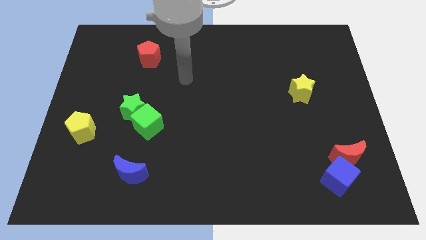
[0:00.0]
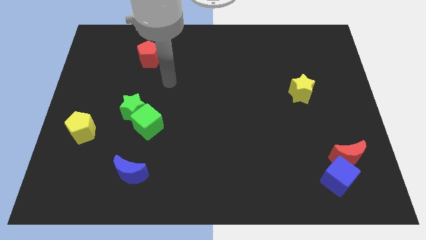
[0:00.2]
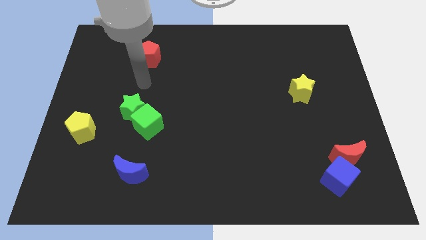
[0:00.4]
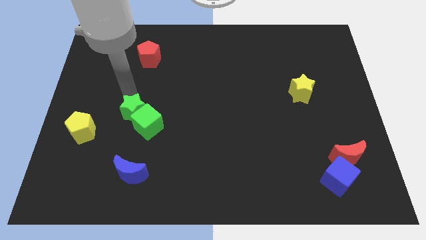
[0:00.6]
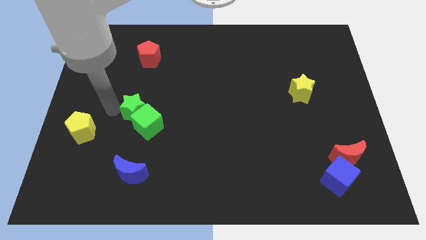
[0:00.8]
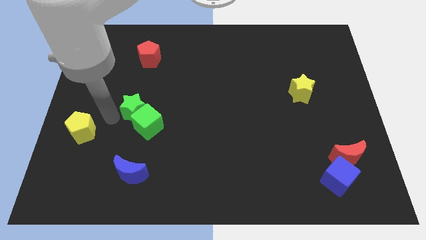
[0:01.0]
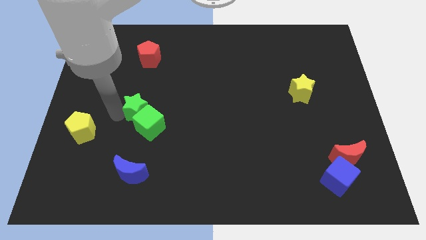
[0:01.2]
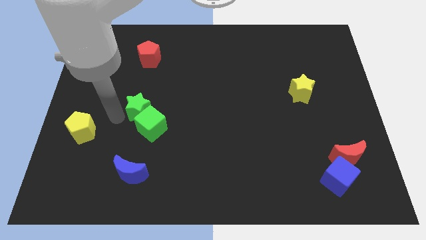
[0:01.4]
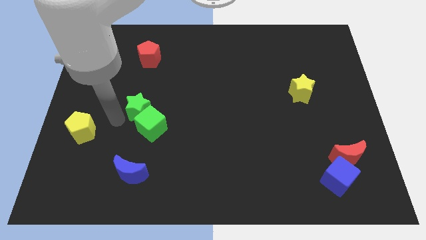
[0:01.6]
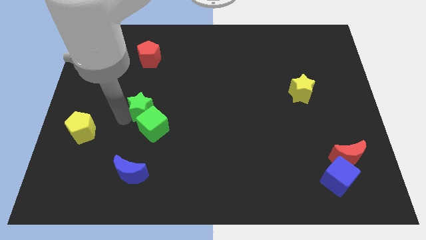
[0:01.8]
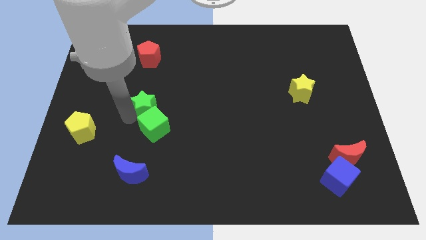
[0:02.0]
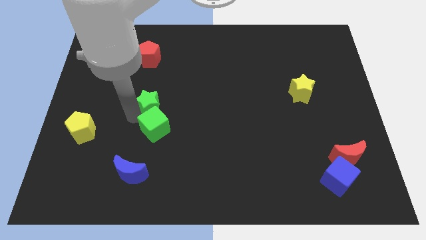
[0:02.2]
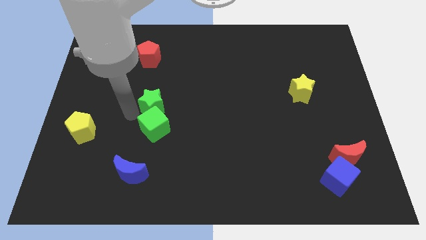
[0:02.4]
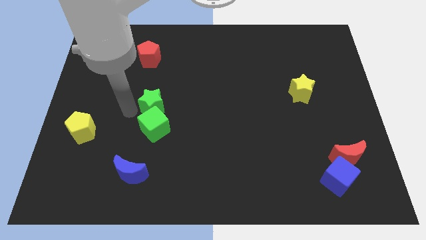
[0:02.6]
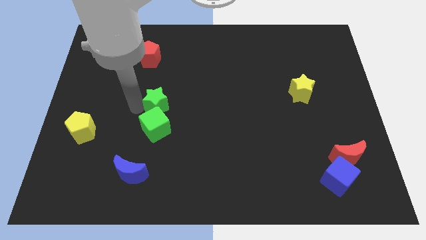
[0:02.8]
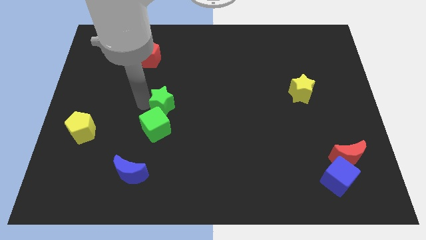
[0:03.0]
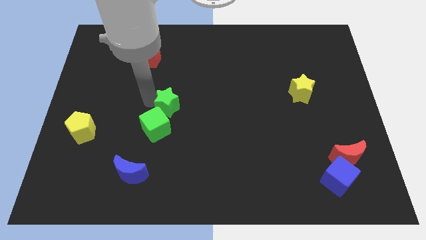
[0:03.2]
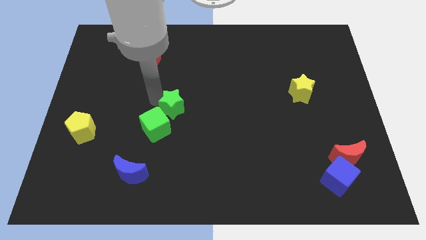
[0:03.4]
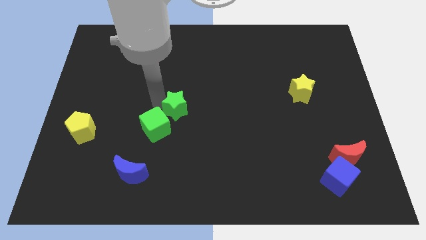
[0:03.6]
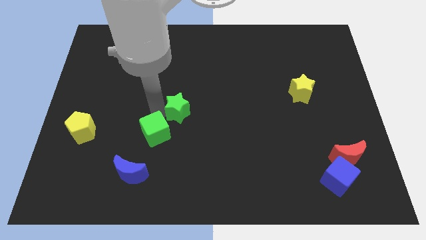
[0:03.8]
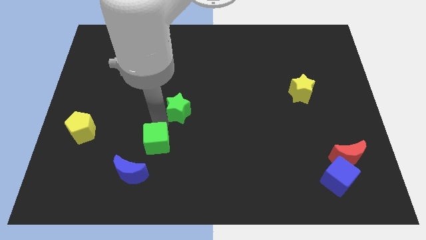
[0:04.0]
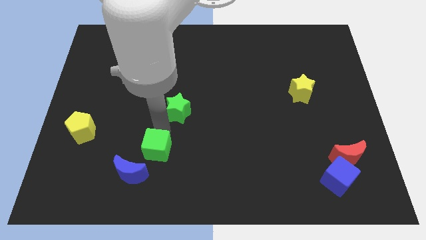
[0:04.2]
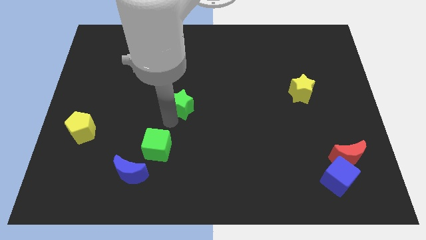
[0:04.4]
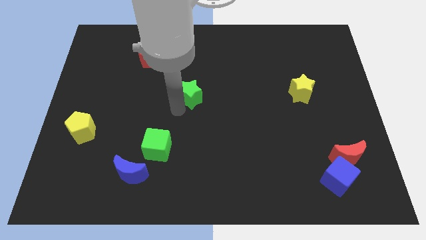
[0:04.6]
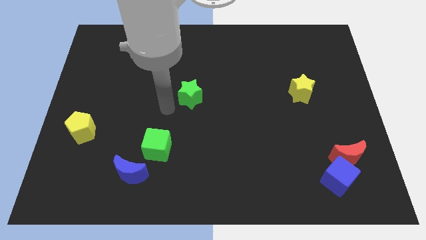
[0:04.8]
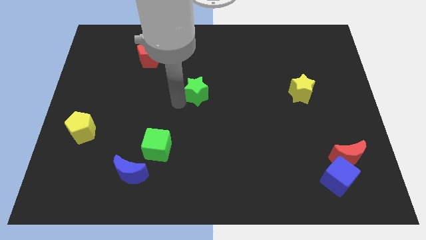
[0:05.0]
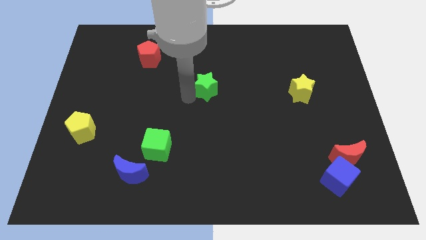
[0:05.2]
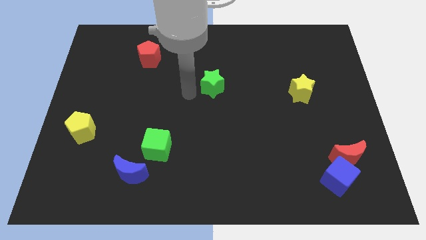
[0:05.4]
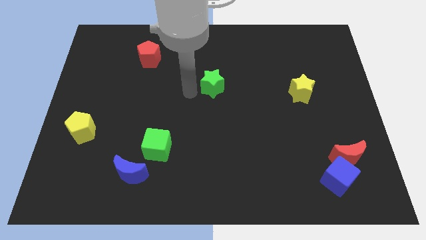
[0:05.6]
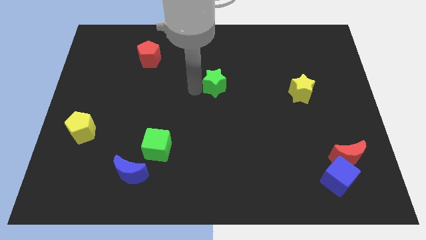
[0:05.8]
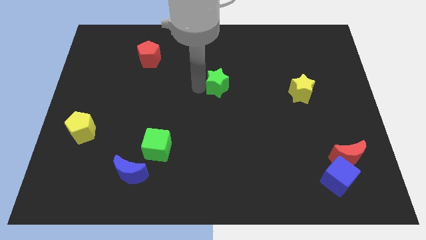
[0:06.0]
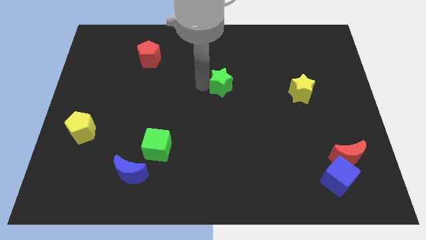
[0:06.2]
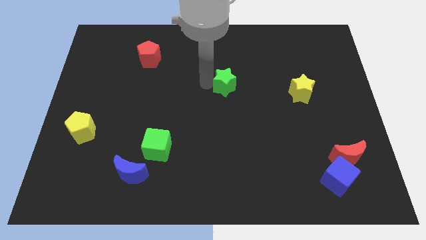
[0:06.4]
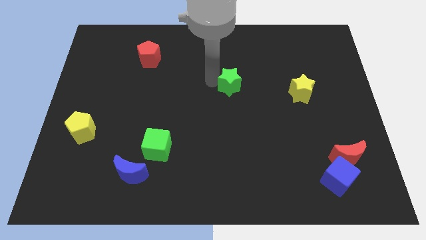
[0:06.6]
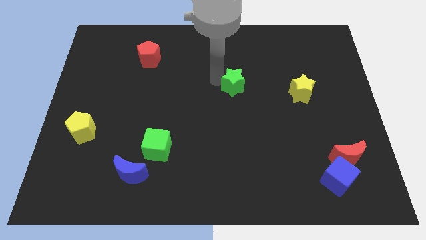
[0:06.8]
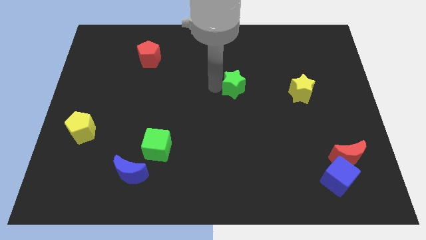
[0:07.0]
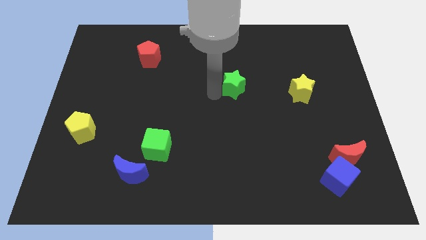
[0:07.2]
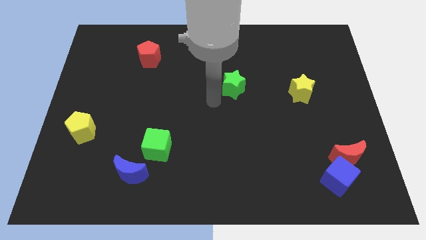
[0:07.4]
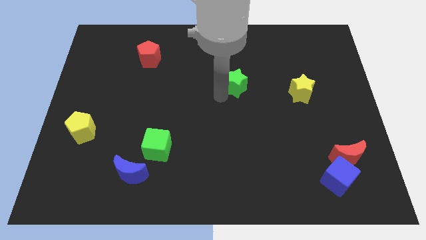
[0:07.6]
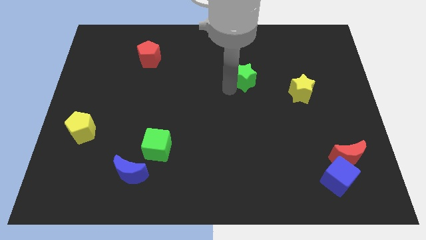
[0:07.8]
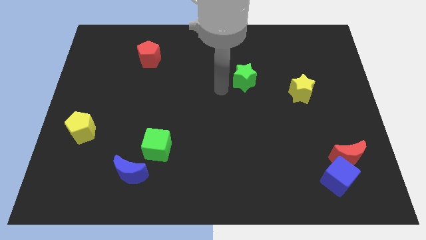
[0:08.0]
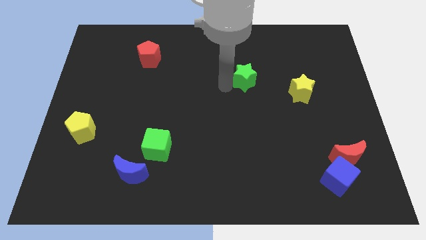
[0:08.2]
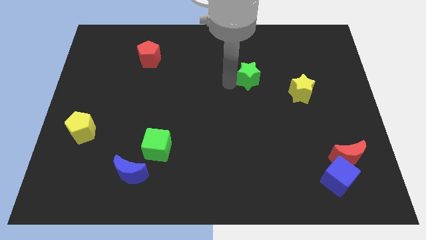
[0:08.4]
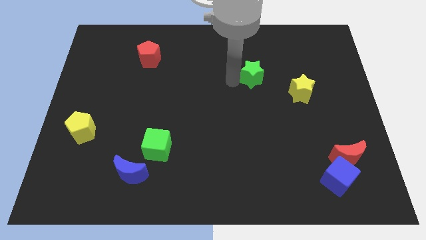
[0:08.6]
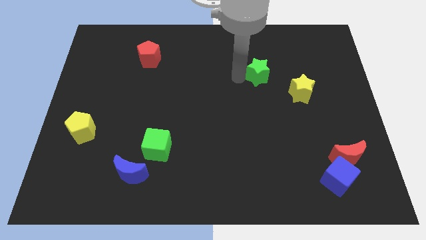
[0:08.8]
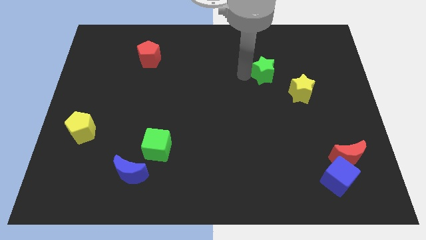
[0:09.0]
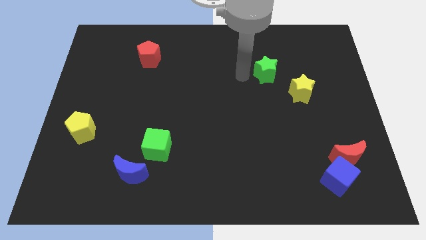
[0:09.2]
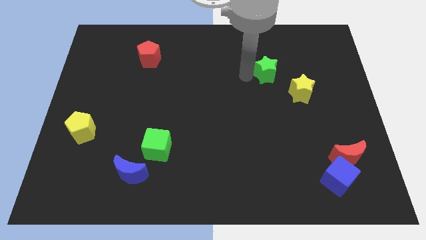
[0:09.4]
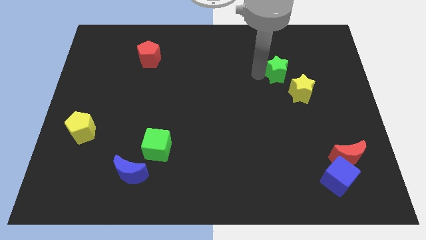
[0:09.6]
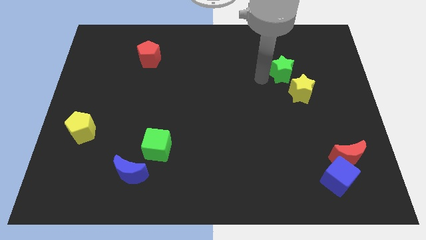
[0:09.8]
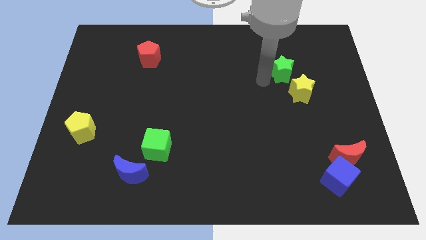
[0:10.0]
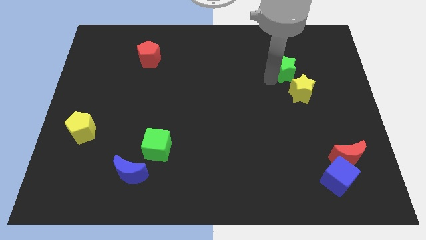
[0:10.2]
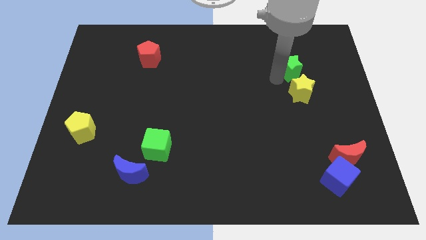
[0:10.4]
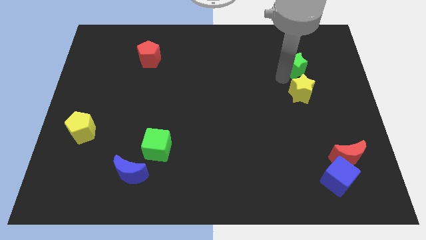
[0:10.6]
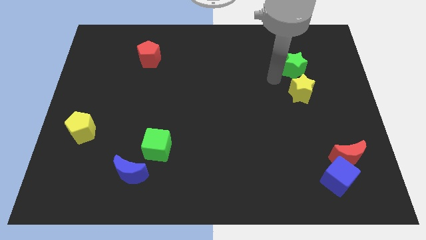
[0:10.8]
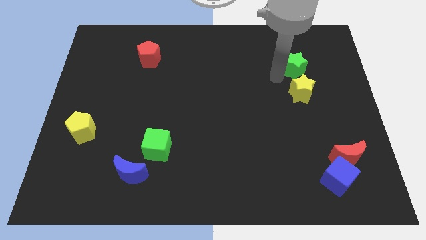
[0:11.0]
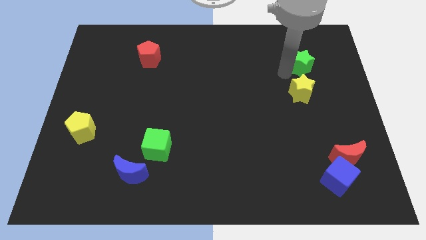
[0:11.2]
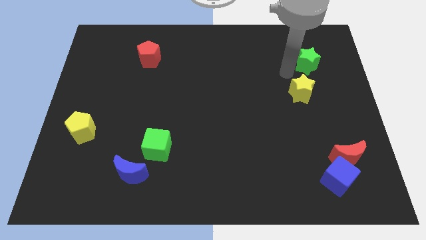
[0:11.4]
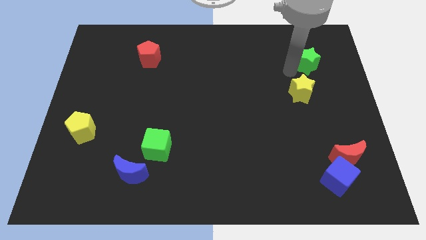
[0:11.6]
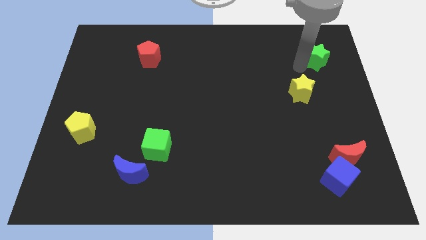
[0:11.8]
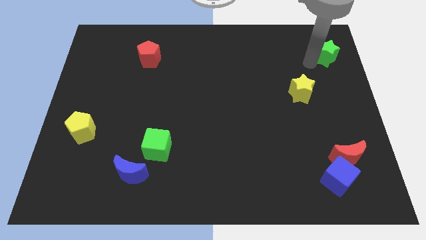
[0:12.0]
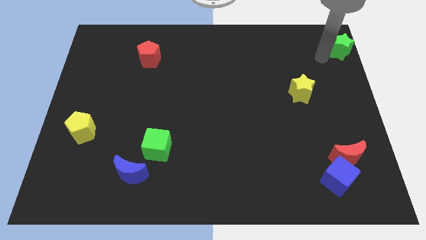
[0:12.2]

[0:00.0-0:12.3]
push the green star to the upper right corner

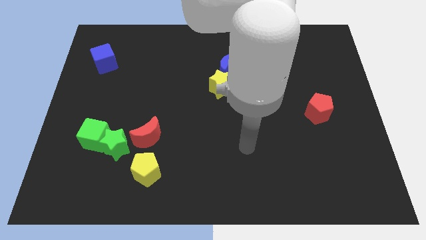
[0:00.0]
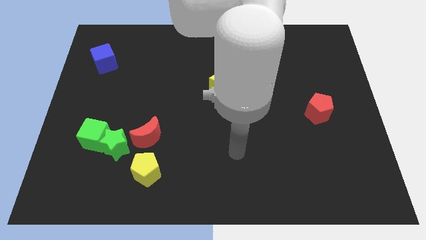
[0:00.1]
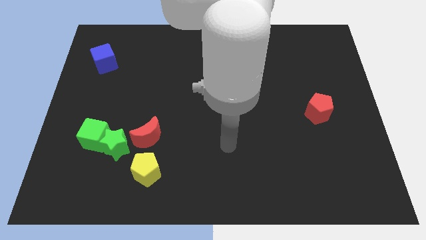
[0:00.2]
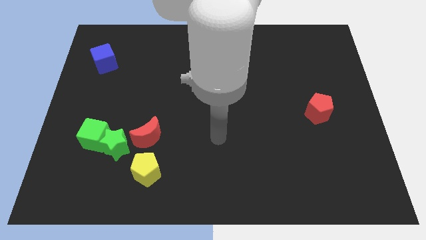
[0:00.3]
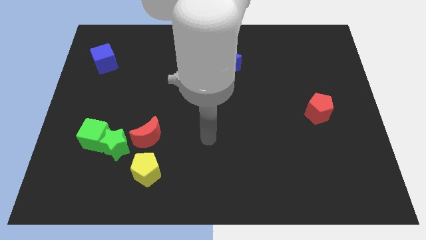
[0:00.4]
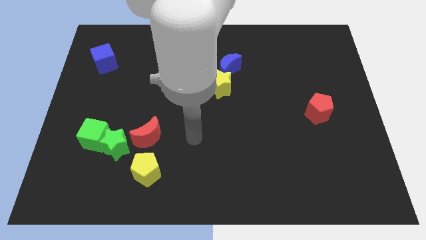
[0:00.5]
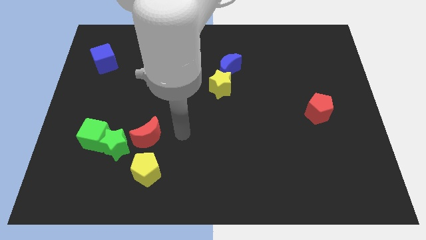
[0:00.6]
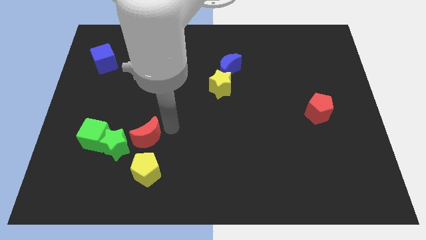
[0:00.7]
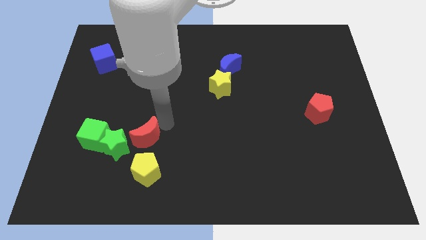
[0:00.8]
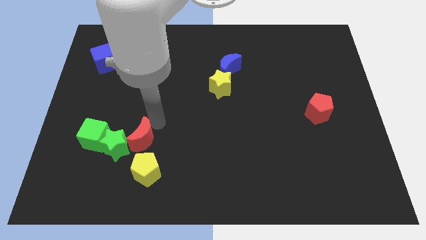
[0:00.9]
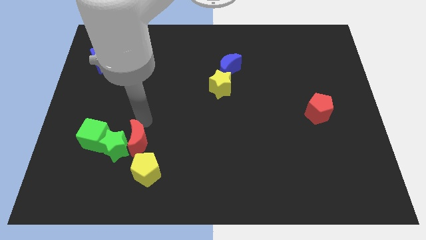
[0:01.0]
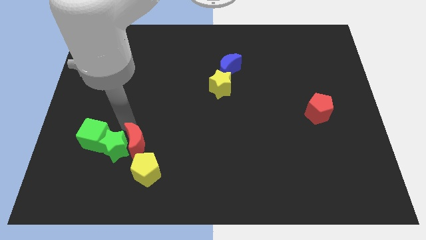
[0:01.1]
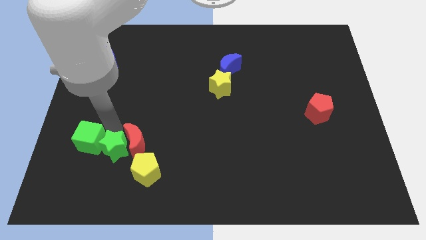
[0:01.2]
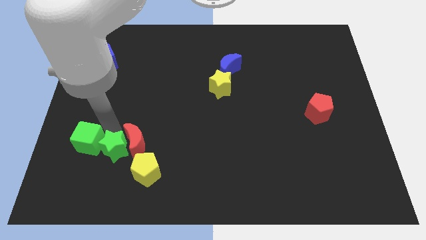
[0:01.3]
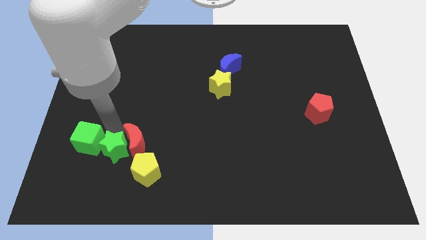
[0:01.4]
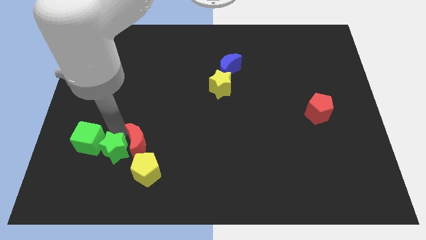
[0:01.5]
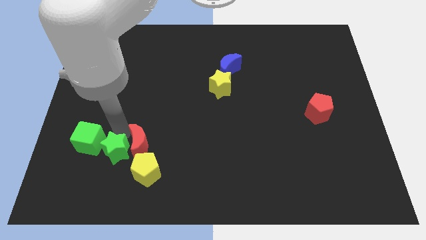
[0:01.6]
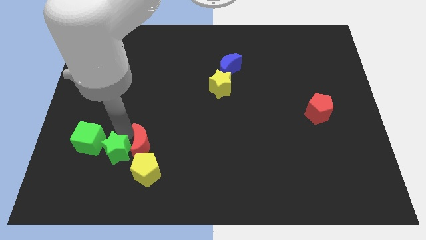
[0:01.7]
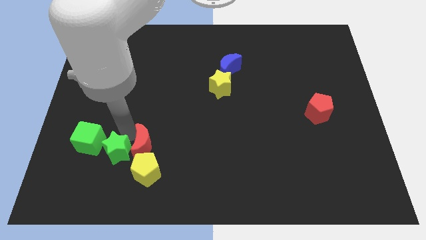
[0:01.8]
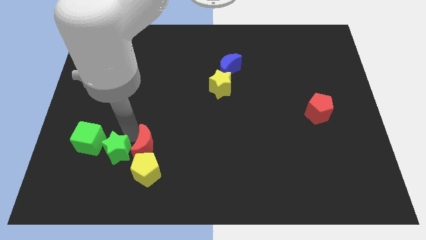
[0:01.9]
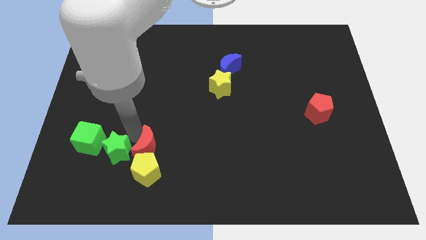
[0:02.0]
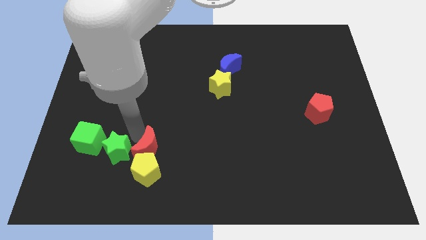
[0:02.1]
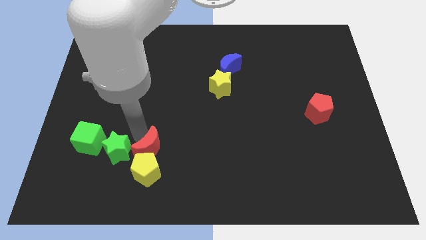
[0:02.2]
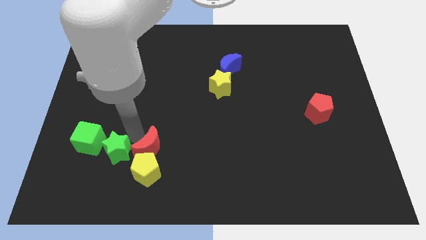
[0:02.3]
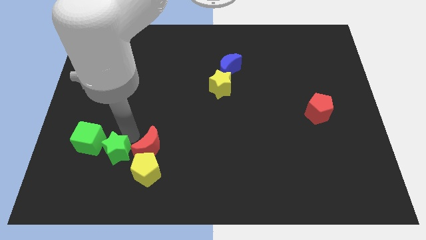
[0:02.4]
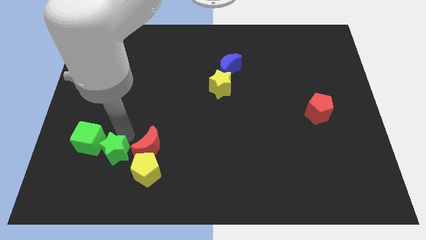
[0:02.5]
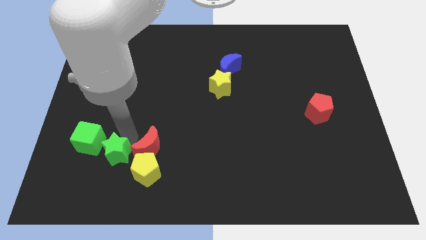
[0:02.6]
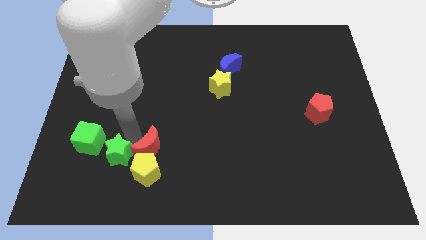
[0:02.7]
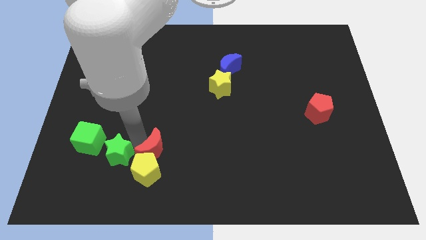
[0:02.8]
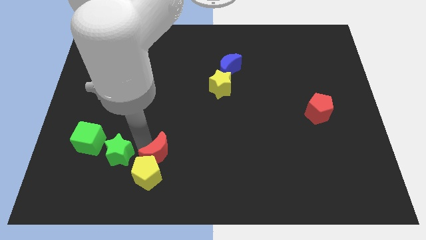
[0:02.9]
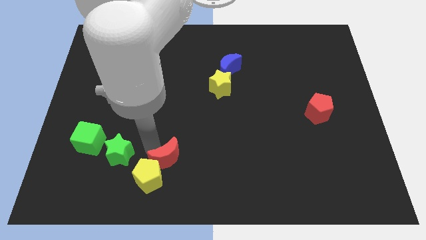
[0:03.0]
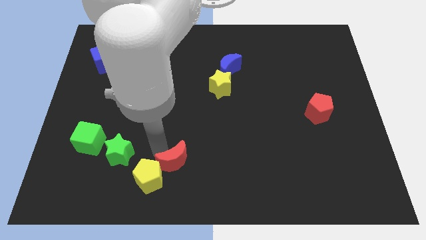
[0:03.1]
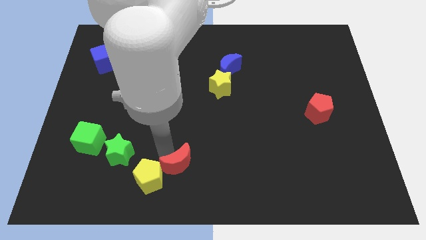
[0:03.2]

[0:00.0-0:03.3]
move the red moon to the bottom
